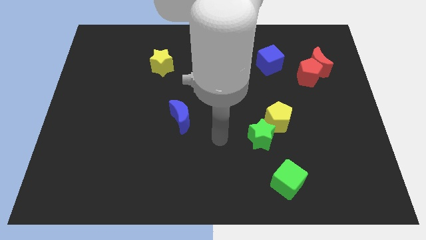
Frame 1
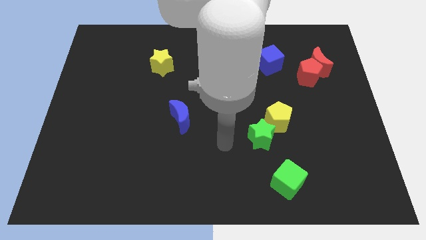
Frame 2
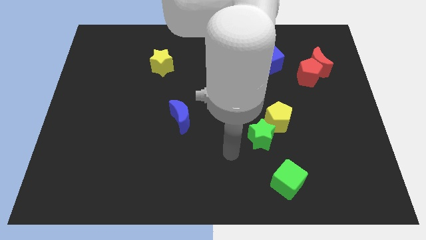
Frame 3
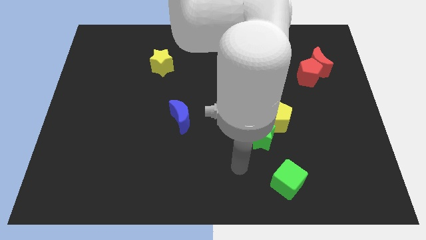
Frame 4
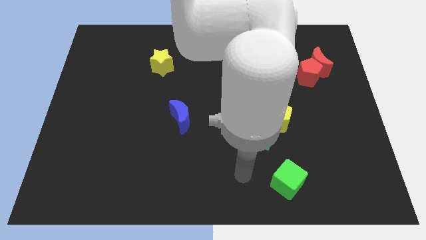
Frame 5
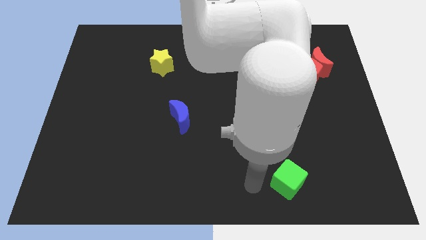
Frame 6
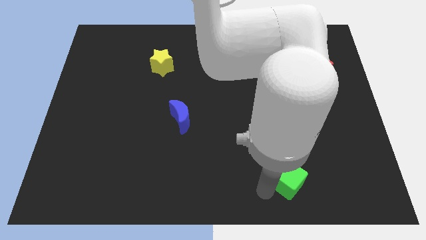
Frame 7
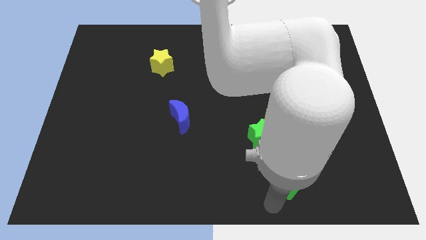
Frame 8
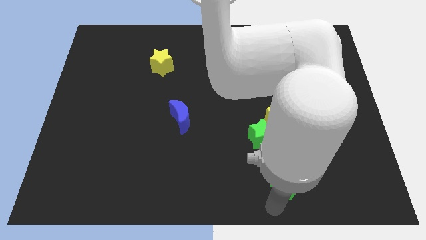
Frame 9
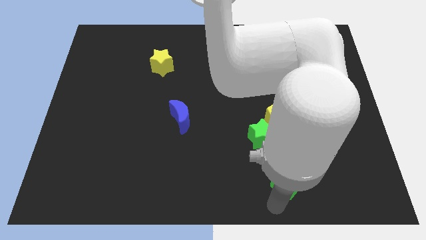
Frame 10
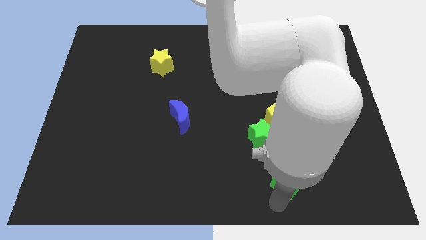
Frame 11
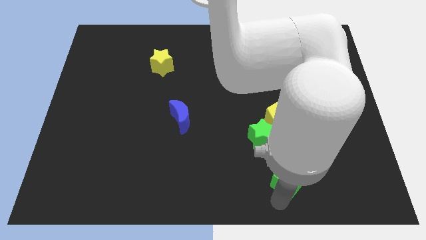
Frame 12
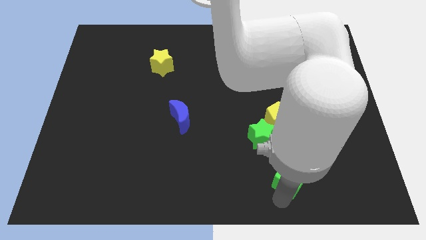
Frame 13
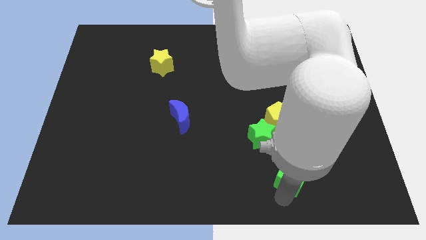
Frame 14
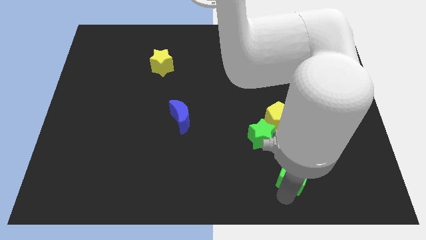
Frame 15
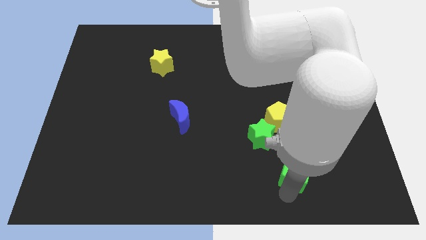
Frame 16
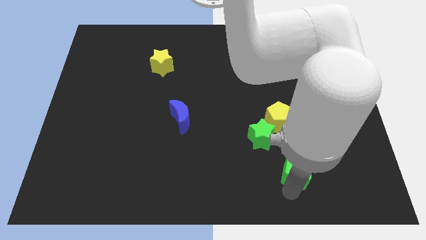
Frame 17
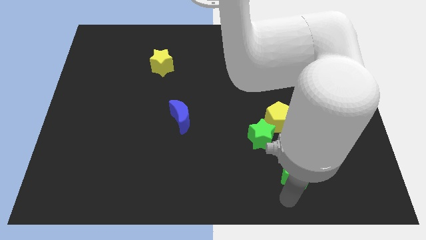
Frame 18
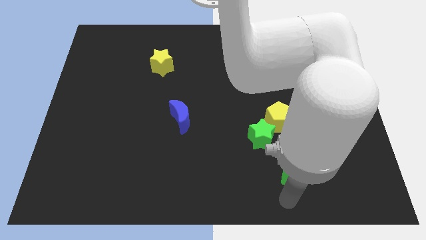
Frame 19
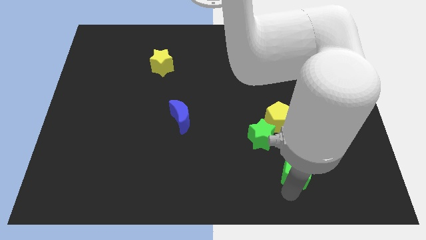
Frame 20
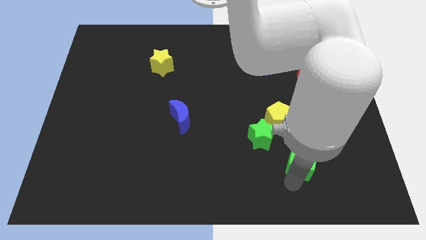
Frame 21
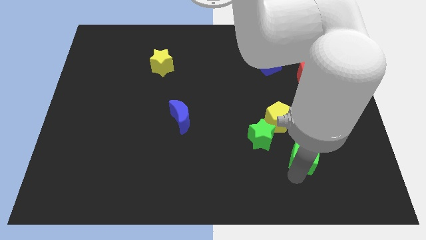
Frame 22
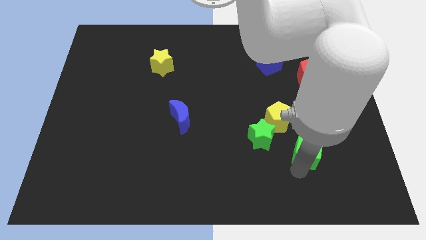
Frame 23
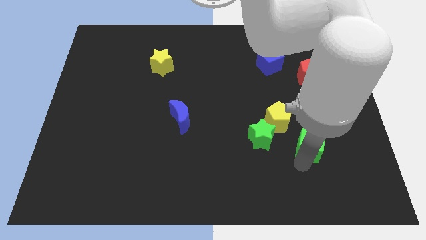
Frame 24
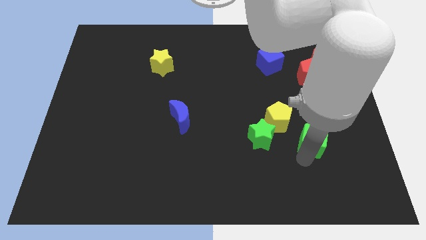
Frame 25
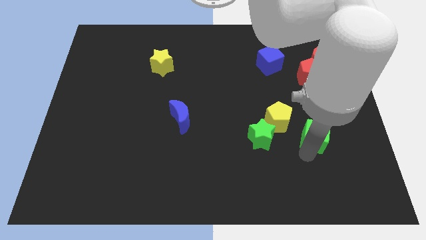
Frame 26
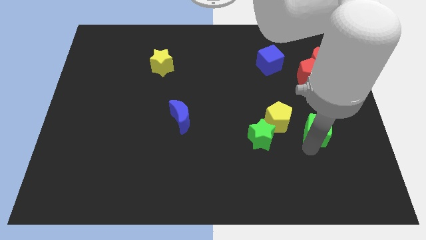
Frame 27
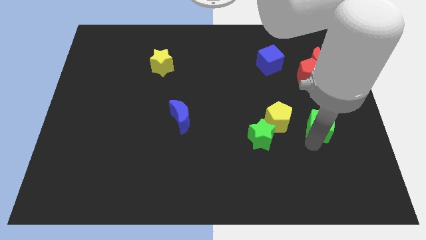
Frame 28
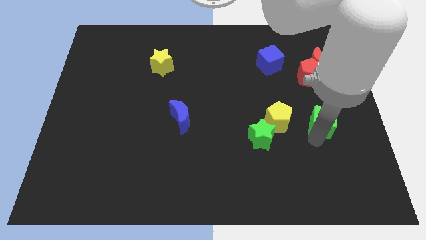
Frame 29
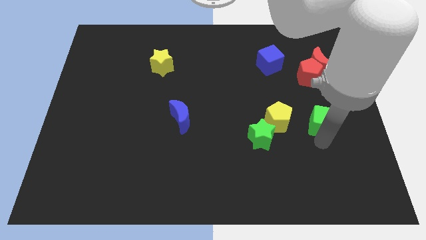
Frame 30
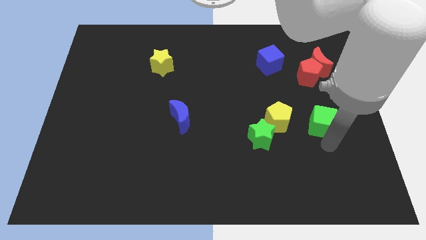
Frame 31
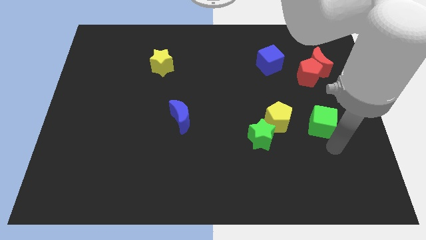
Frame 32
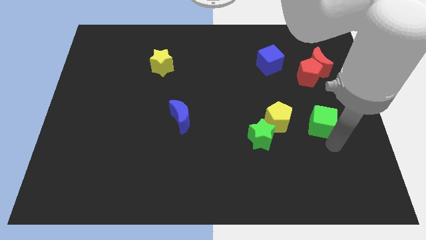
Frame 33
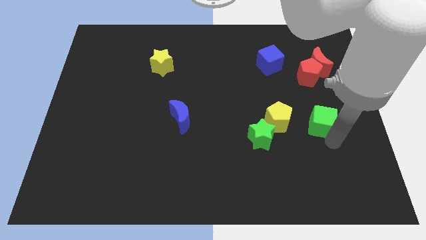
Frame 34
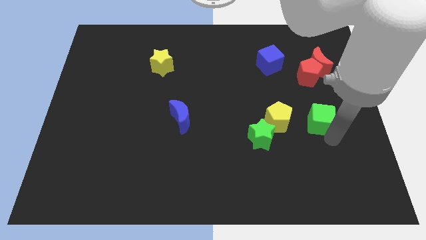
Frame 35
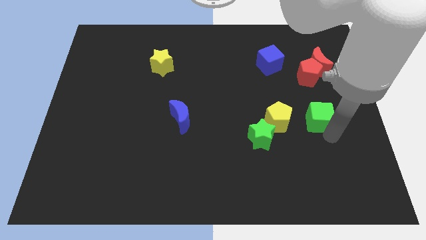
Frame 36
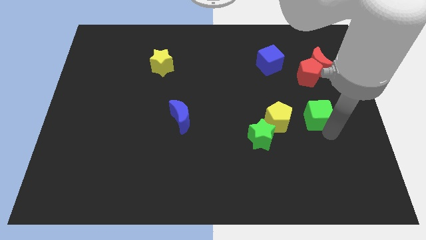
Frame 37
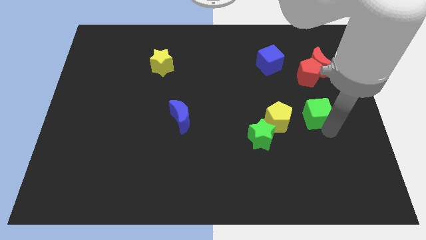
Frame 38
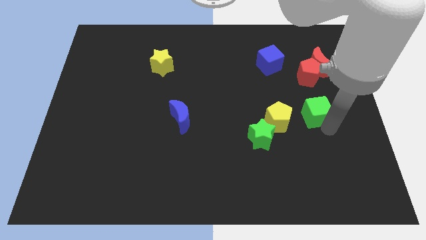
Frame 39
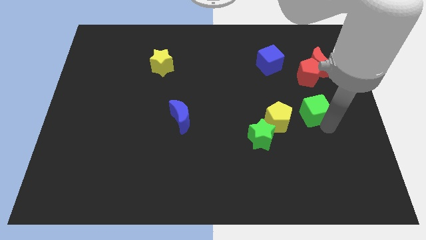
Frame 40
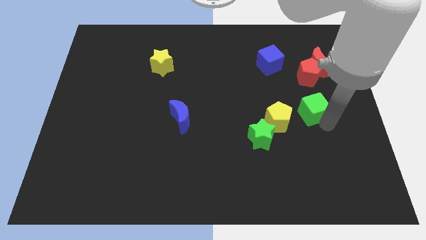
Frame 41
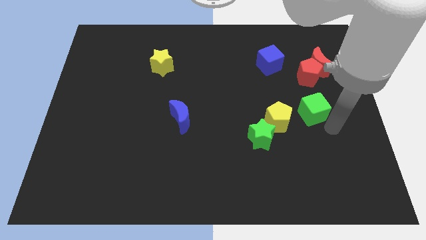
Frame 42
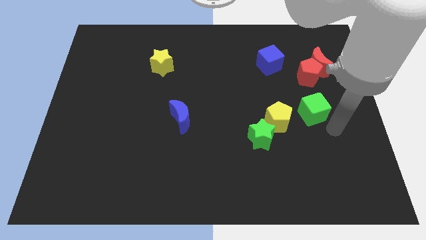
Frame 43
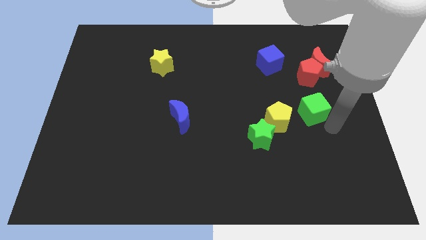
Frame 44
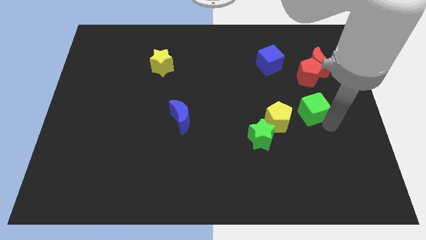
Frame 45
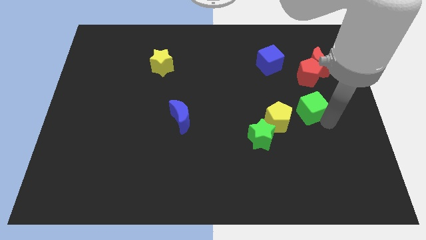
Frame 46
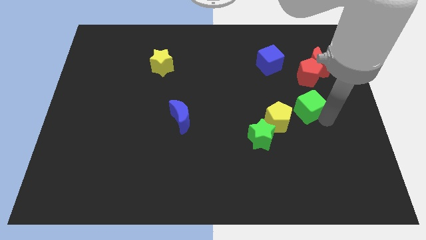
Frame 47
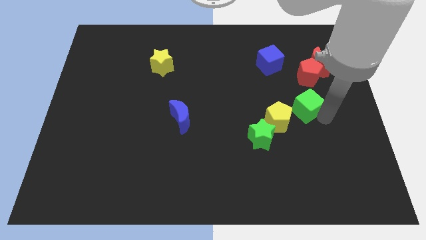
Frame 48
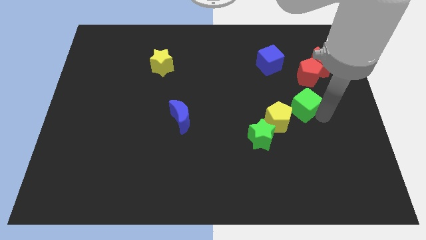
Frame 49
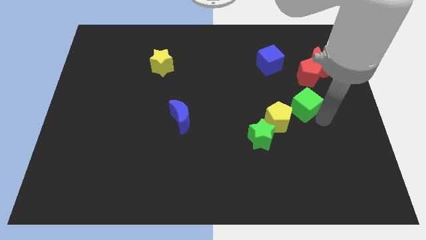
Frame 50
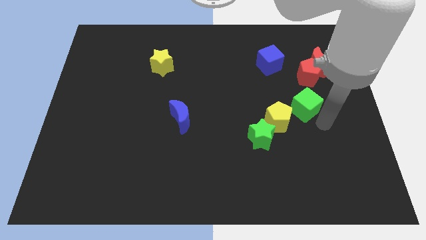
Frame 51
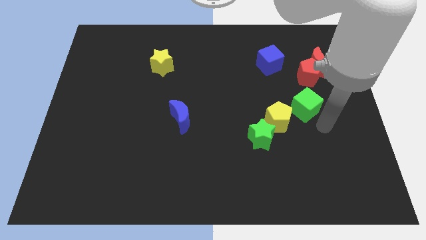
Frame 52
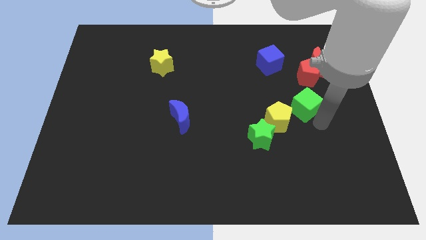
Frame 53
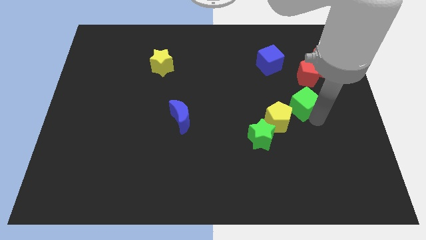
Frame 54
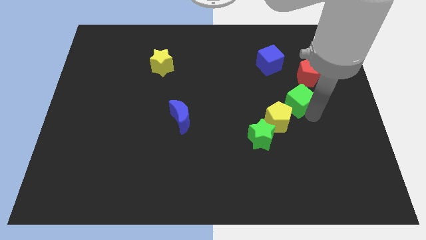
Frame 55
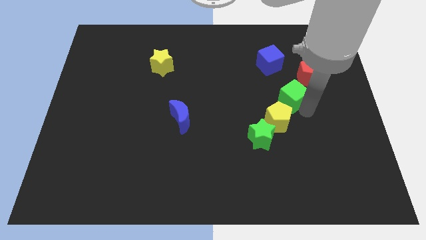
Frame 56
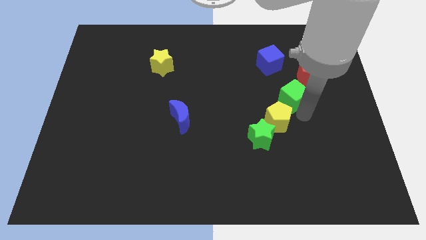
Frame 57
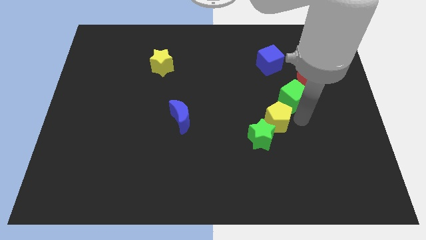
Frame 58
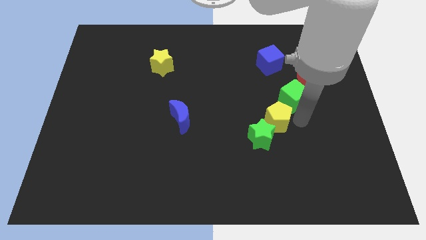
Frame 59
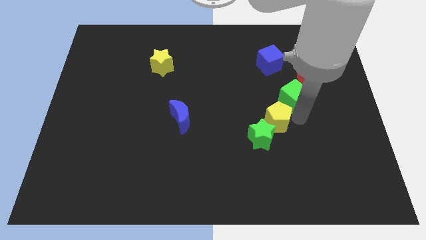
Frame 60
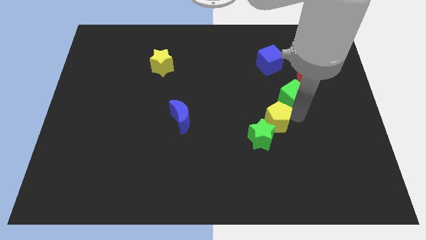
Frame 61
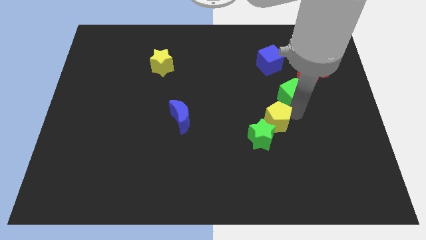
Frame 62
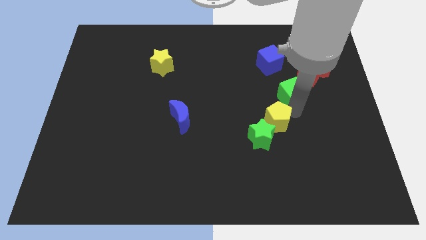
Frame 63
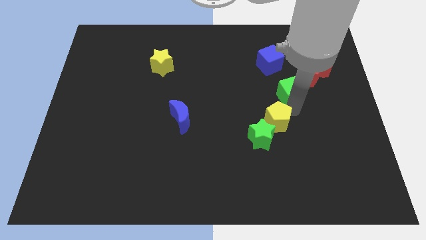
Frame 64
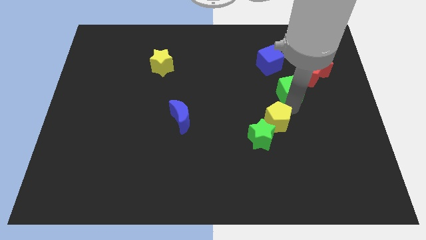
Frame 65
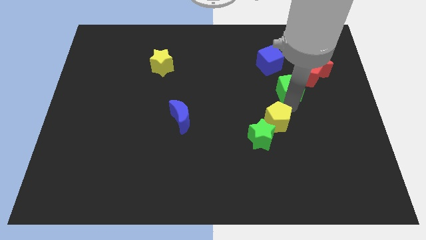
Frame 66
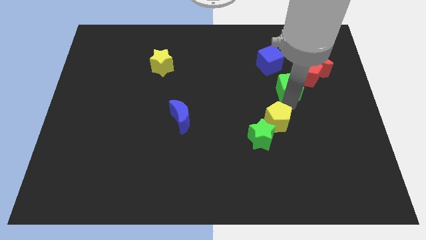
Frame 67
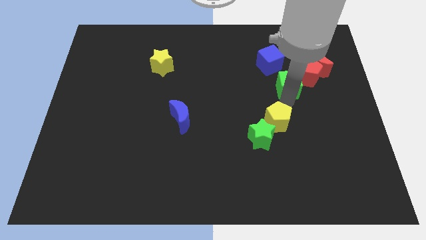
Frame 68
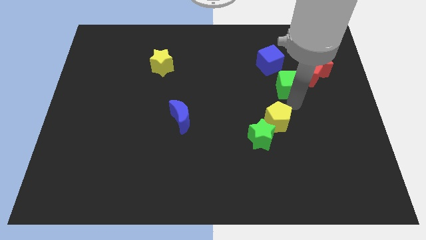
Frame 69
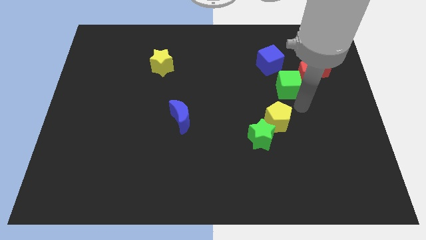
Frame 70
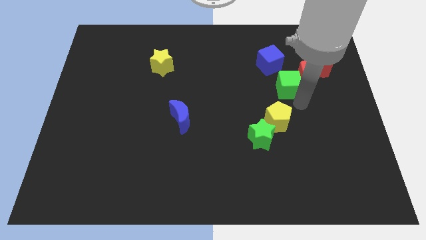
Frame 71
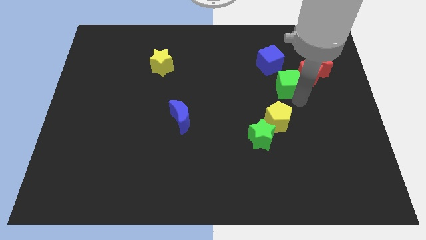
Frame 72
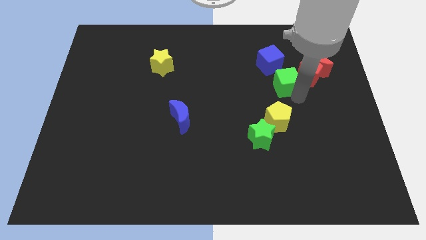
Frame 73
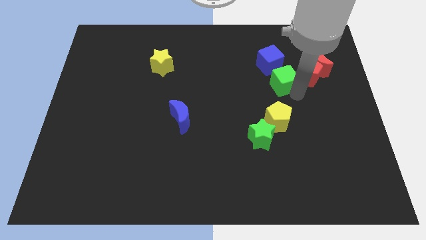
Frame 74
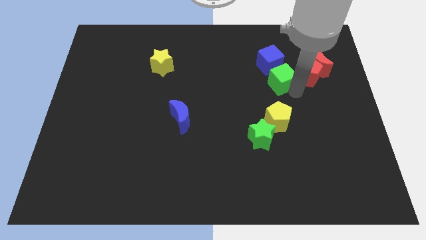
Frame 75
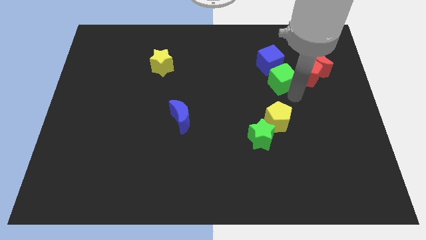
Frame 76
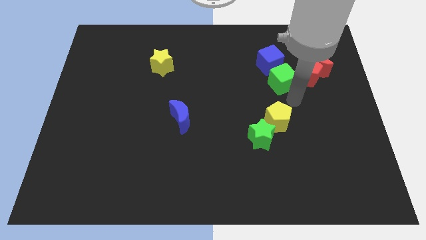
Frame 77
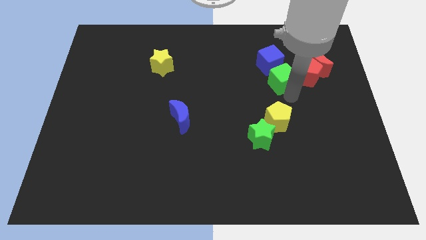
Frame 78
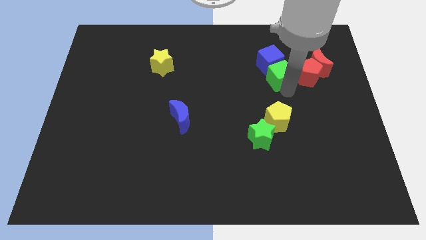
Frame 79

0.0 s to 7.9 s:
put the green cube next to the blue cube
